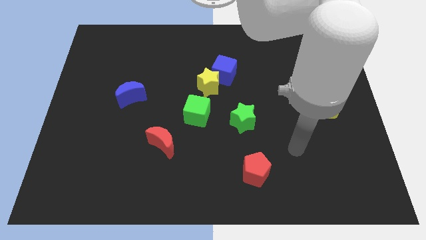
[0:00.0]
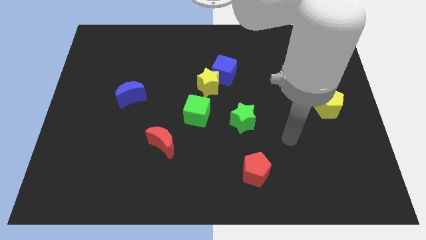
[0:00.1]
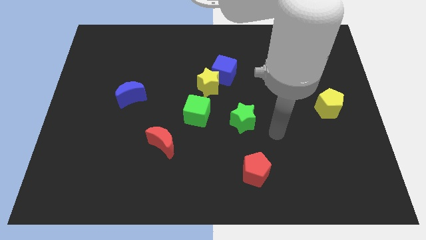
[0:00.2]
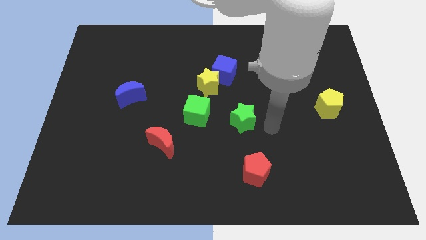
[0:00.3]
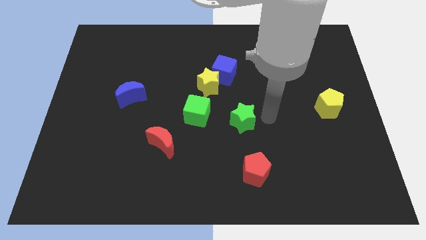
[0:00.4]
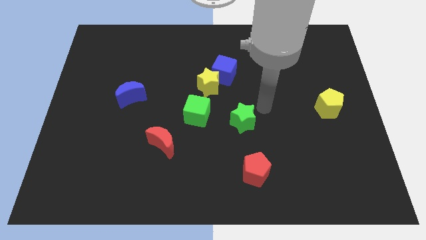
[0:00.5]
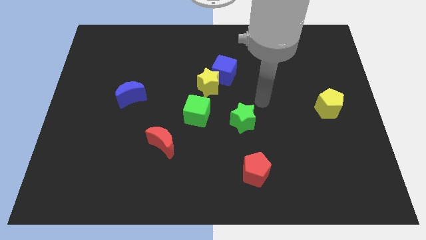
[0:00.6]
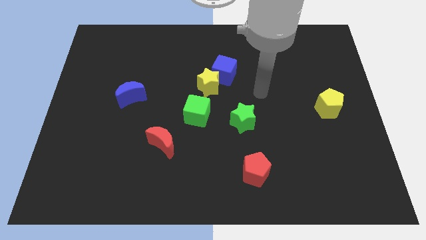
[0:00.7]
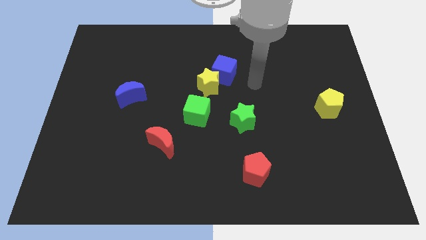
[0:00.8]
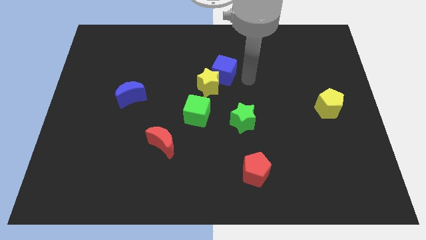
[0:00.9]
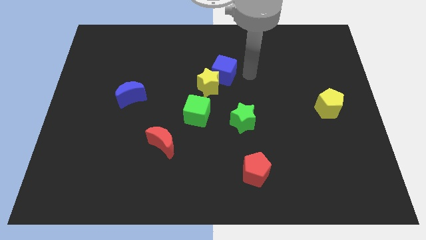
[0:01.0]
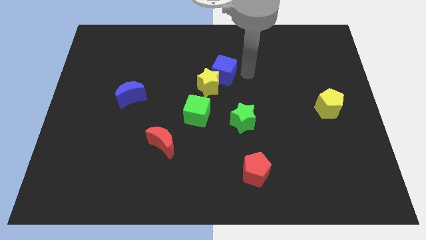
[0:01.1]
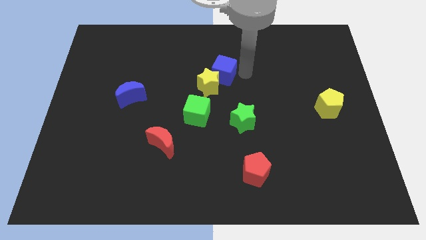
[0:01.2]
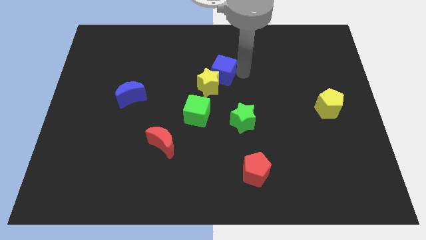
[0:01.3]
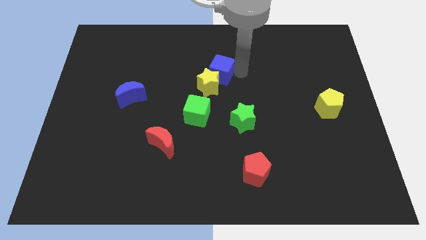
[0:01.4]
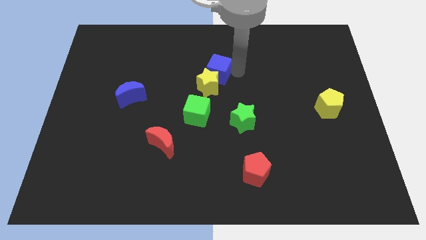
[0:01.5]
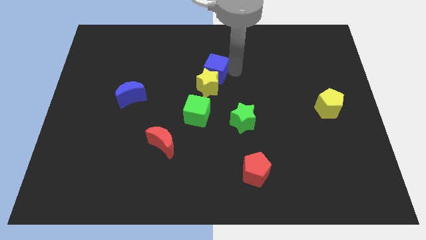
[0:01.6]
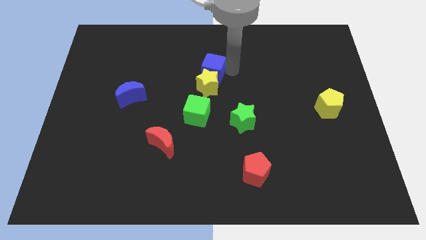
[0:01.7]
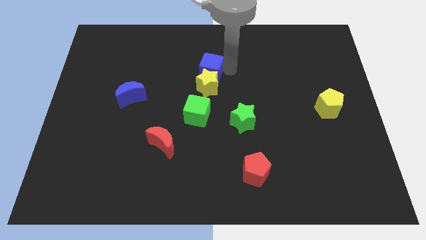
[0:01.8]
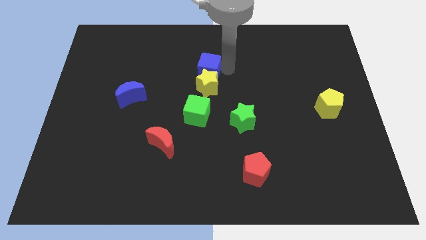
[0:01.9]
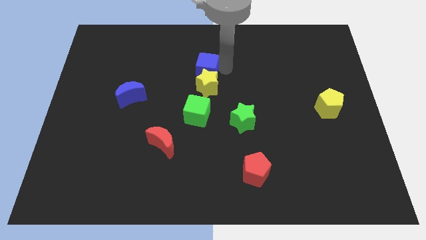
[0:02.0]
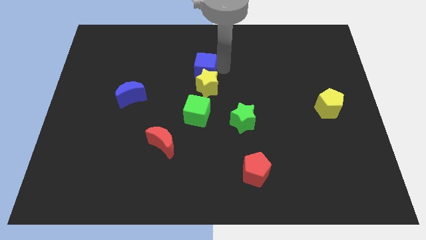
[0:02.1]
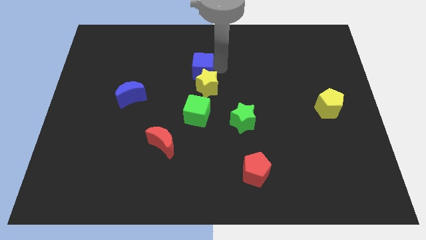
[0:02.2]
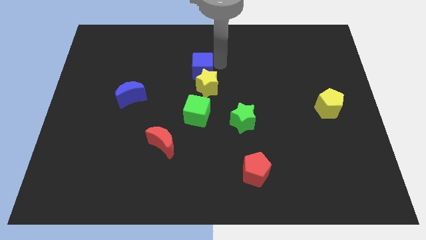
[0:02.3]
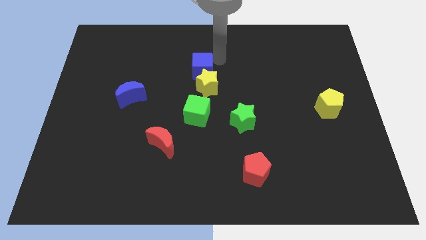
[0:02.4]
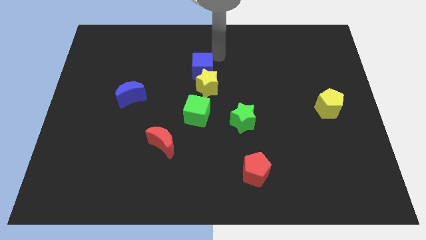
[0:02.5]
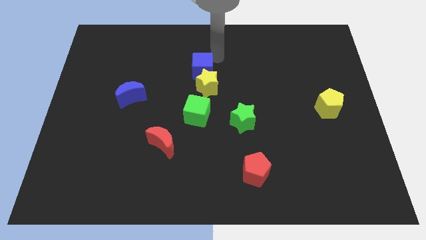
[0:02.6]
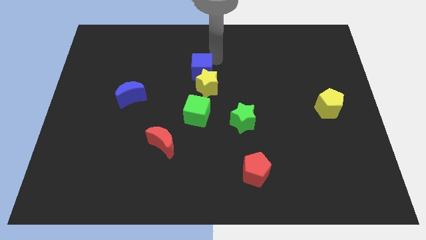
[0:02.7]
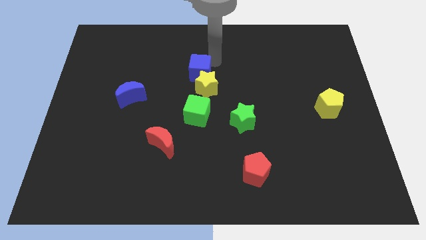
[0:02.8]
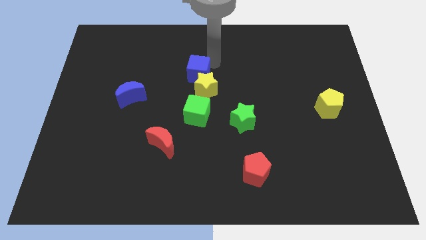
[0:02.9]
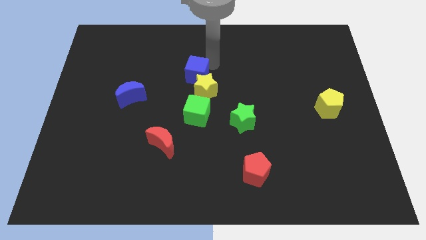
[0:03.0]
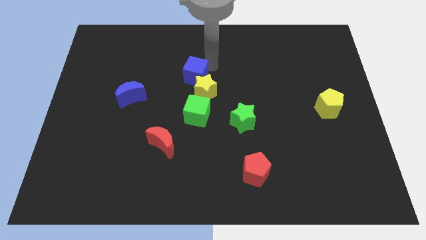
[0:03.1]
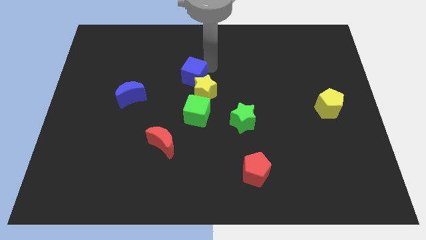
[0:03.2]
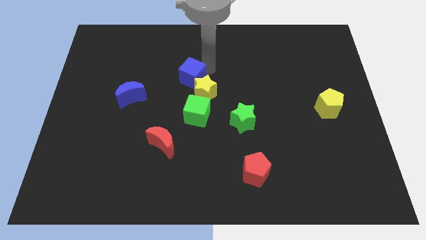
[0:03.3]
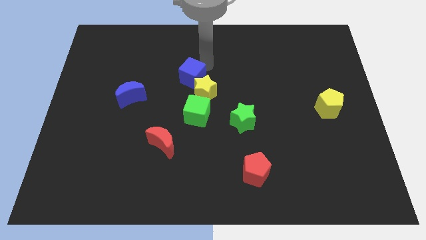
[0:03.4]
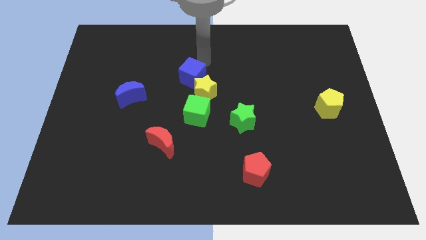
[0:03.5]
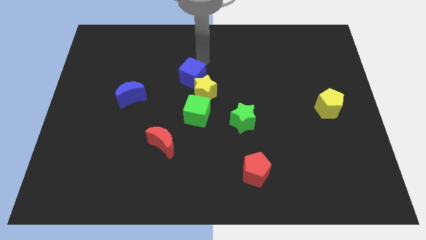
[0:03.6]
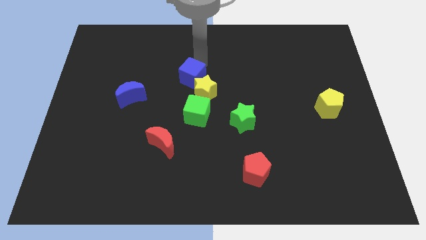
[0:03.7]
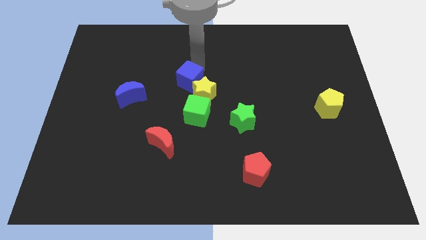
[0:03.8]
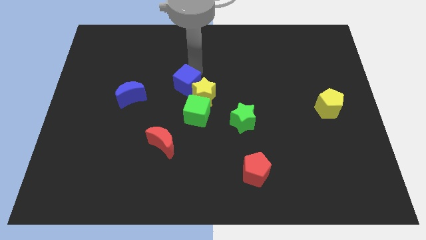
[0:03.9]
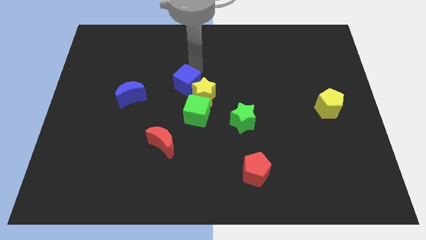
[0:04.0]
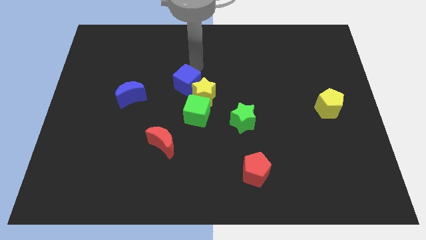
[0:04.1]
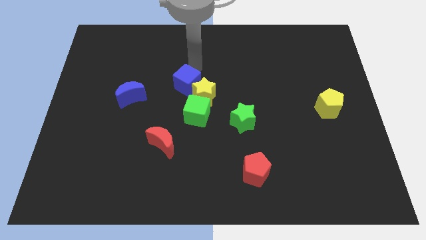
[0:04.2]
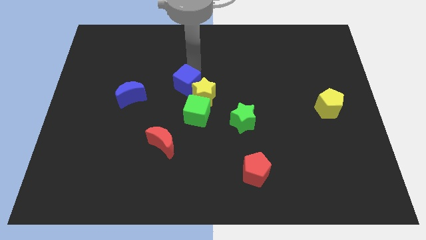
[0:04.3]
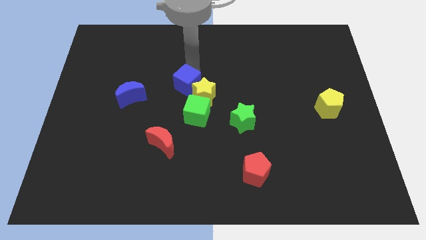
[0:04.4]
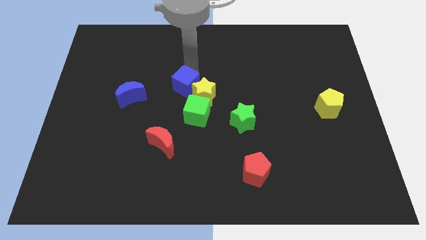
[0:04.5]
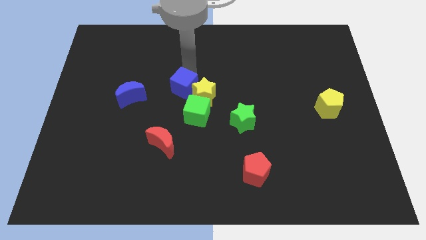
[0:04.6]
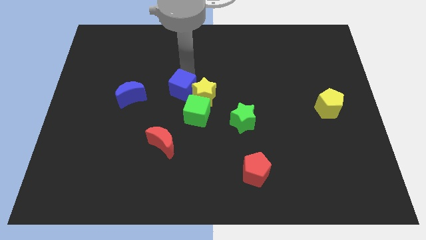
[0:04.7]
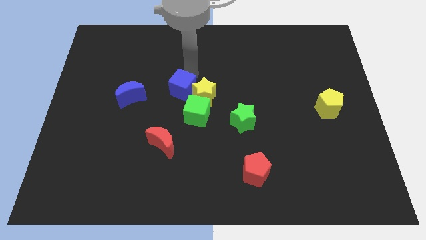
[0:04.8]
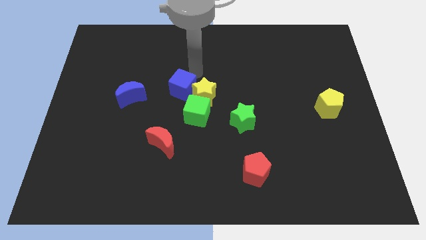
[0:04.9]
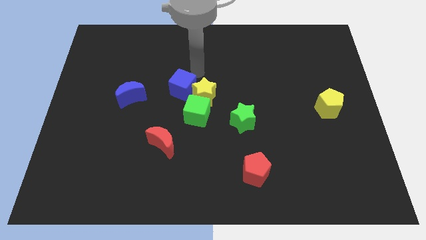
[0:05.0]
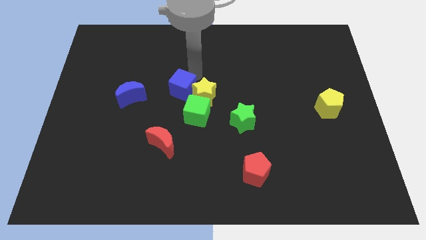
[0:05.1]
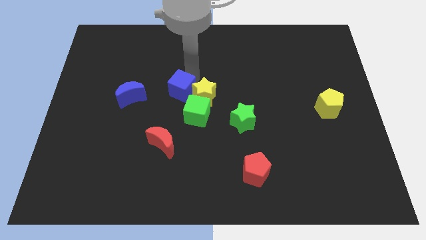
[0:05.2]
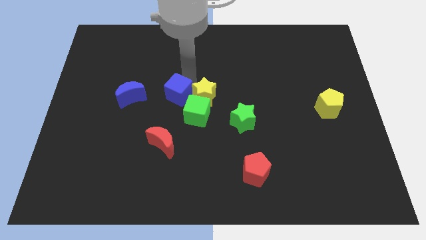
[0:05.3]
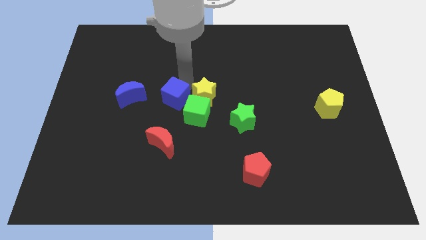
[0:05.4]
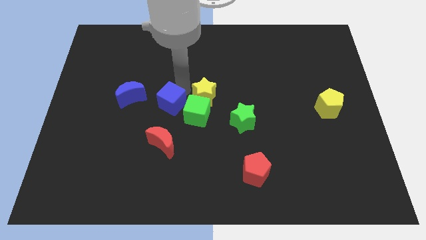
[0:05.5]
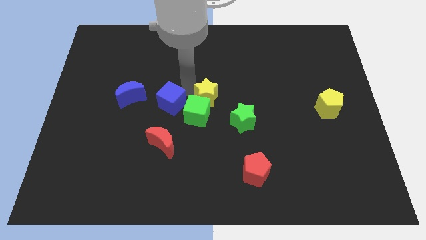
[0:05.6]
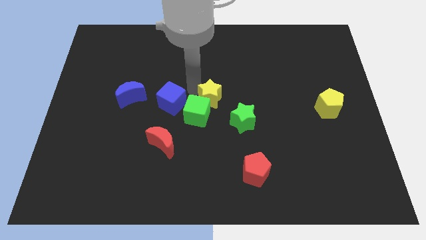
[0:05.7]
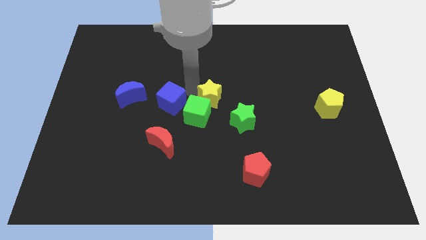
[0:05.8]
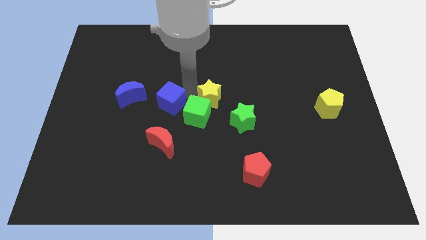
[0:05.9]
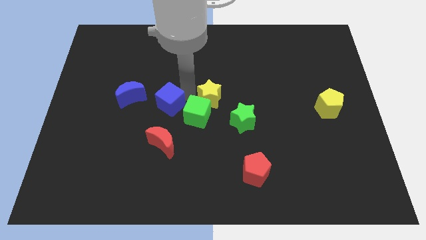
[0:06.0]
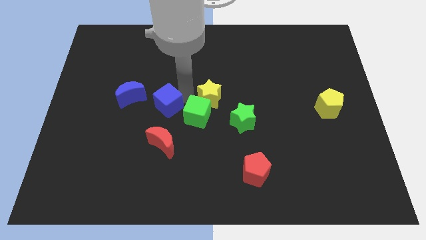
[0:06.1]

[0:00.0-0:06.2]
move the blue cube to the bottom right side of the blue moon
